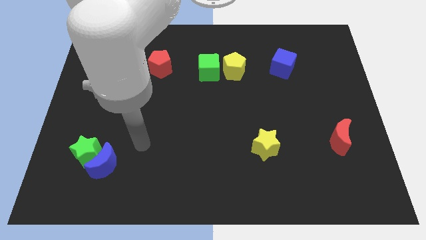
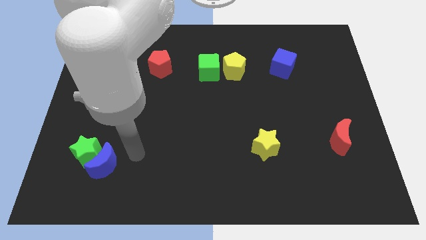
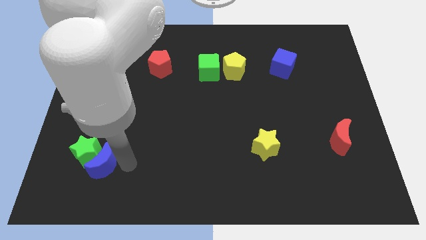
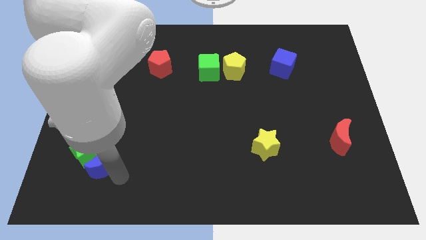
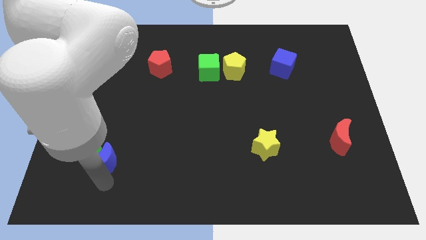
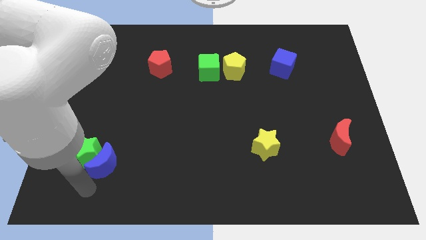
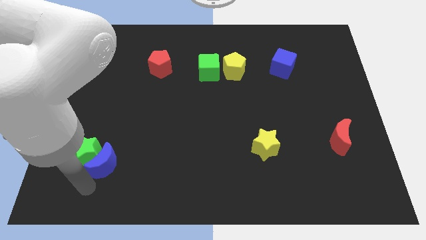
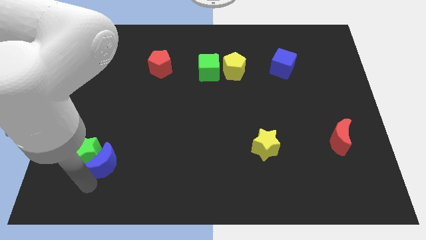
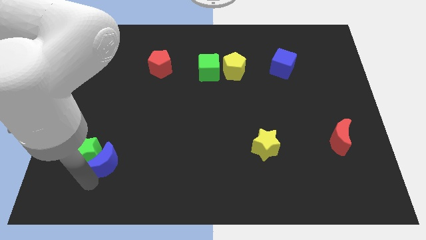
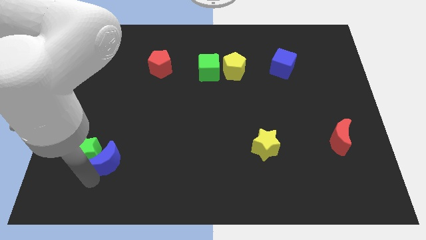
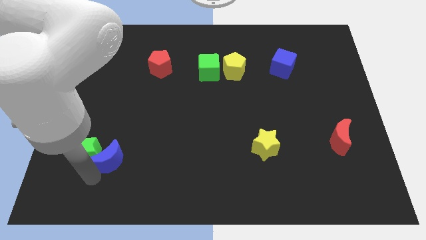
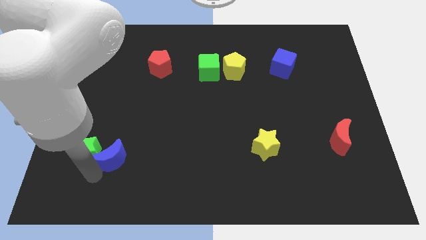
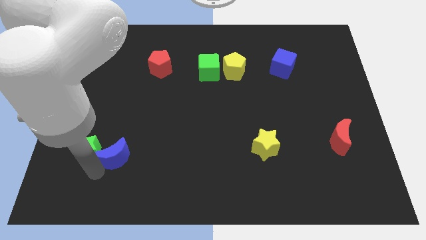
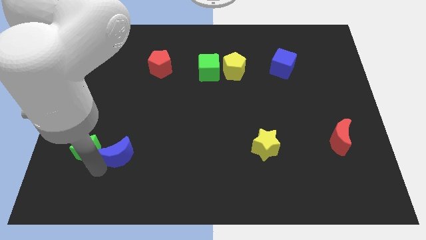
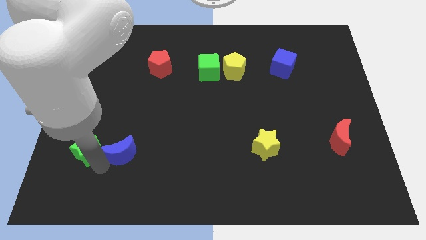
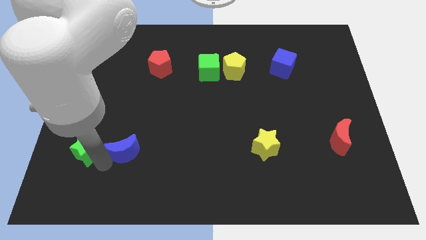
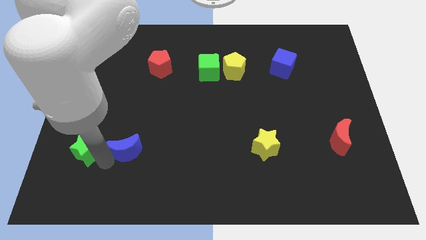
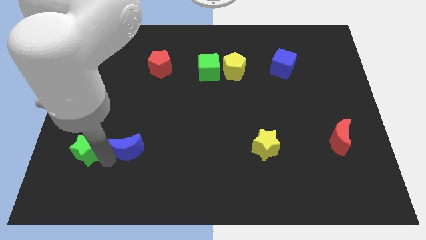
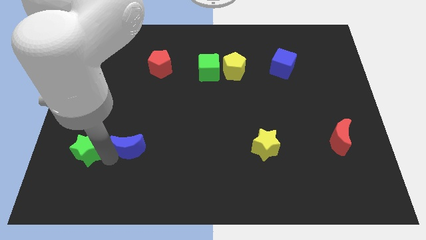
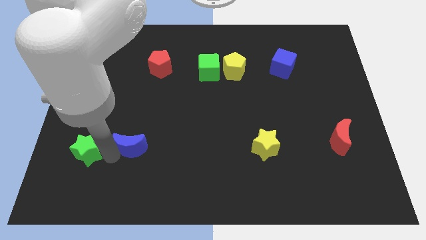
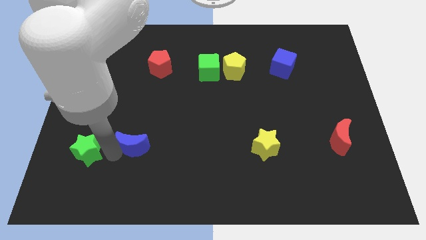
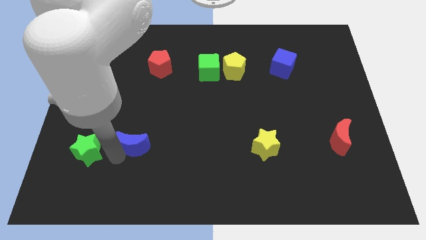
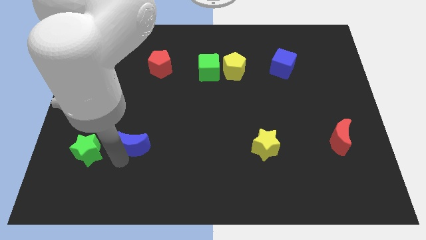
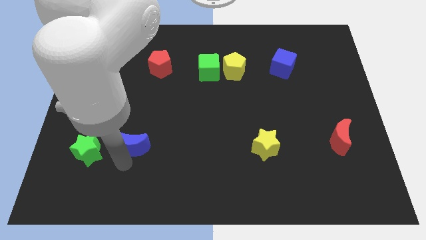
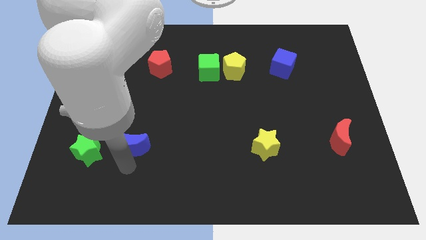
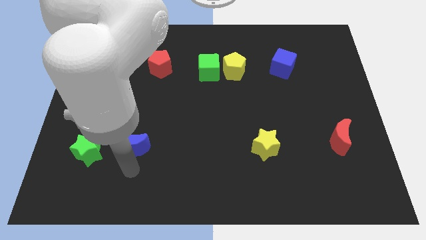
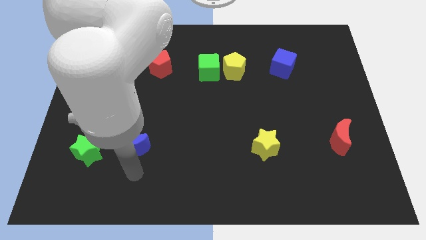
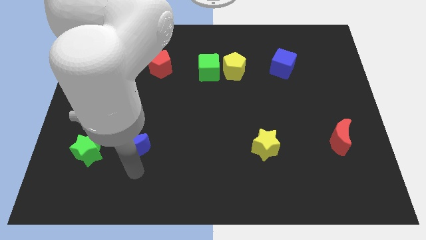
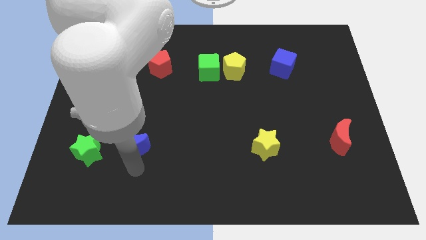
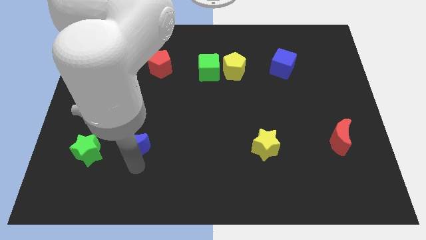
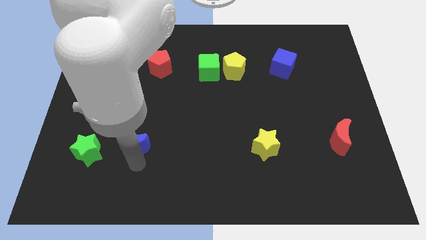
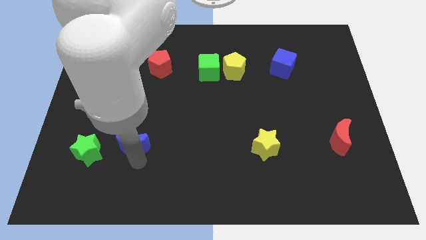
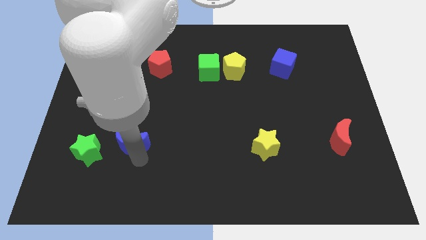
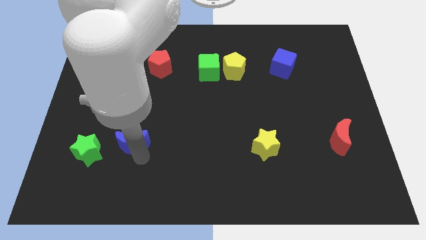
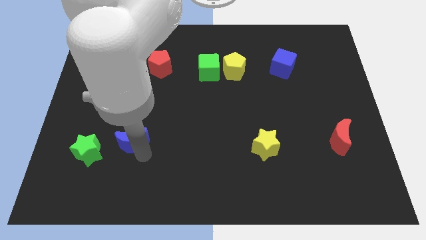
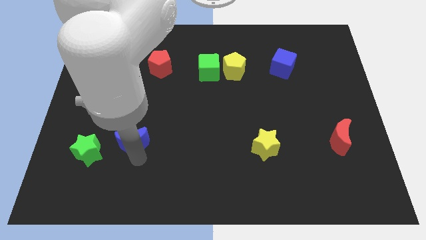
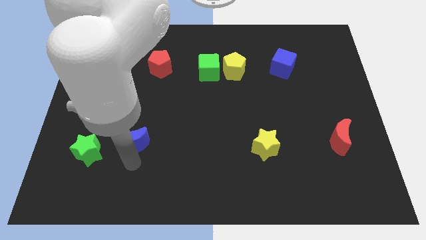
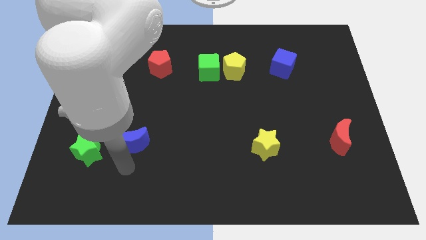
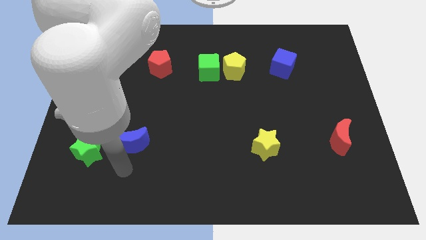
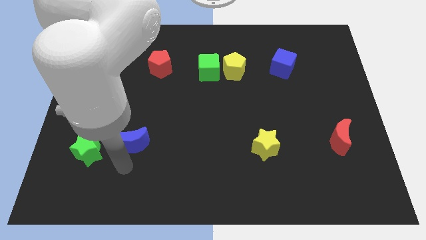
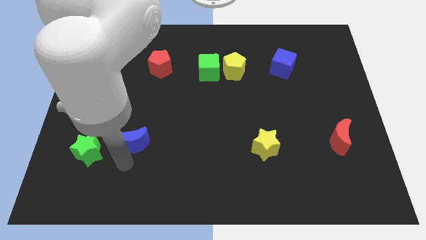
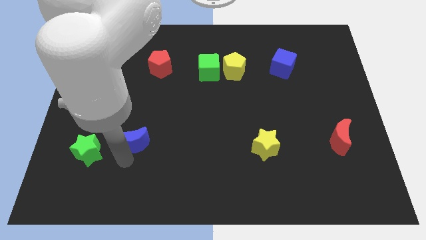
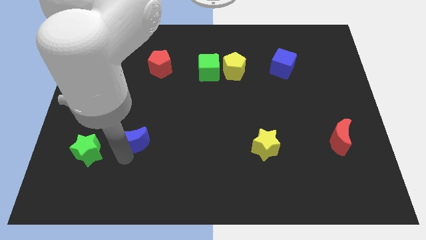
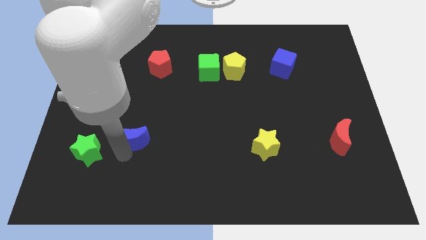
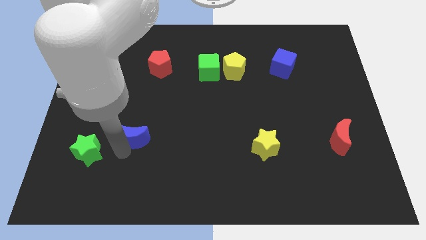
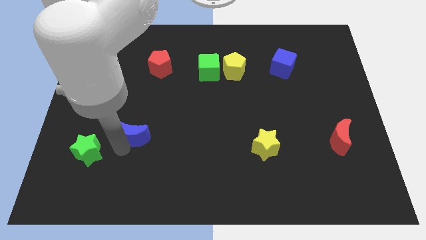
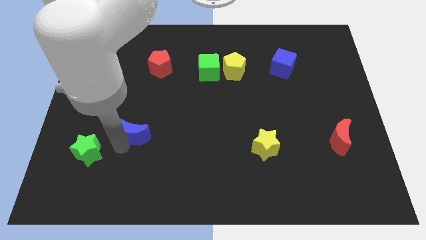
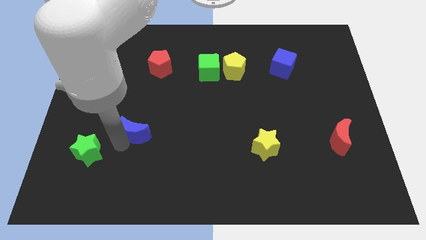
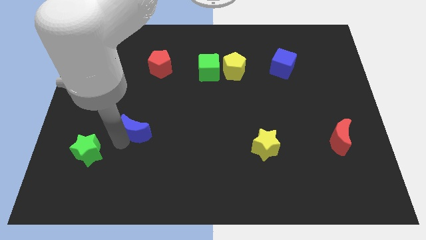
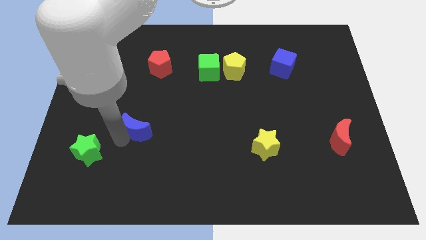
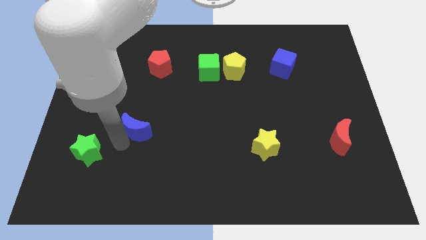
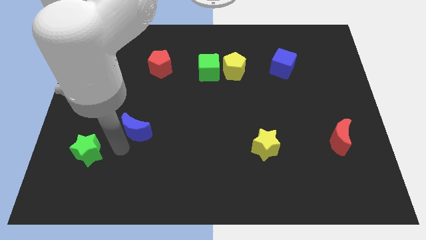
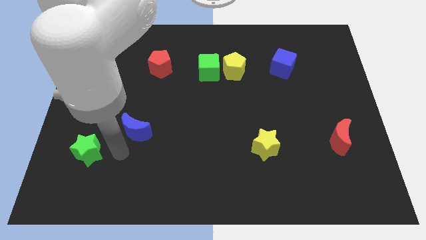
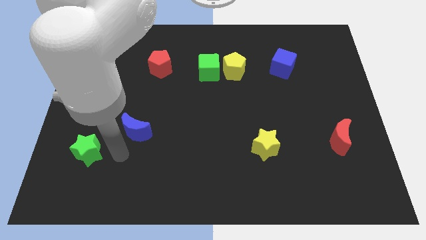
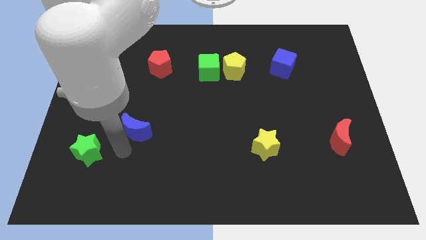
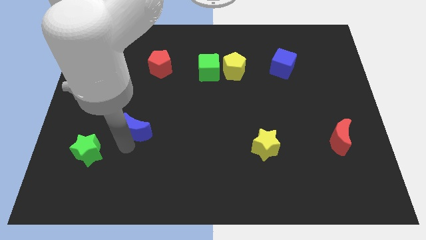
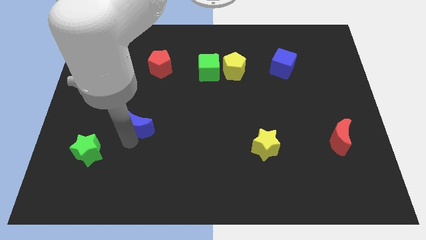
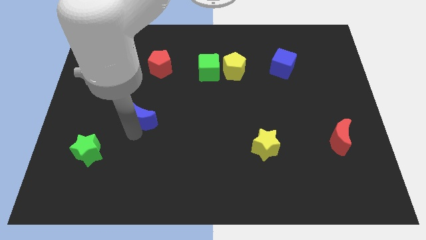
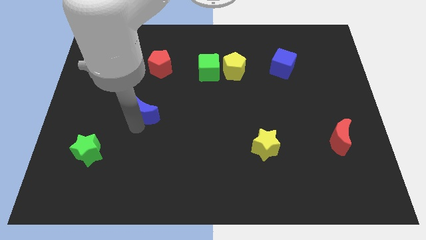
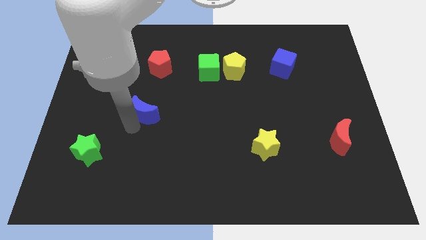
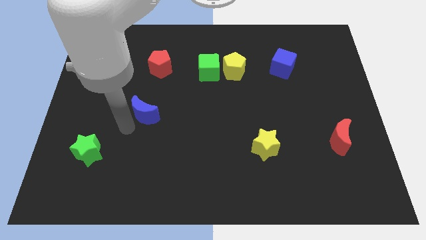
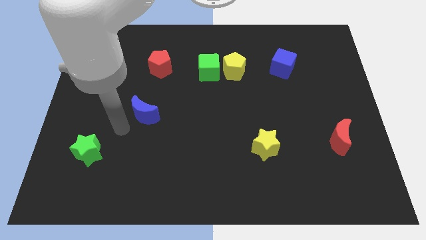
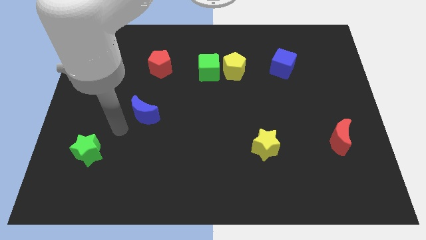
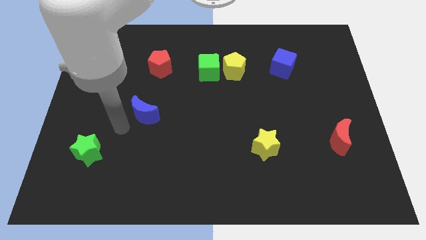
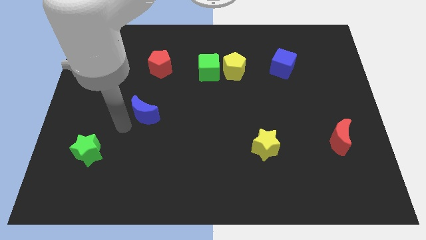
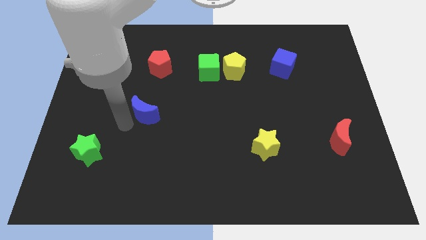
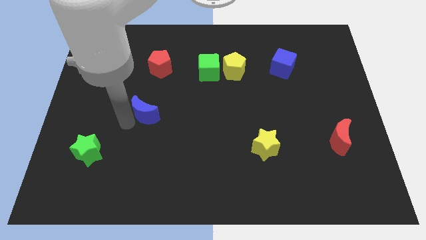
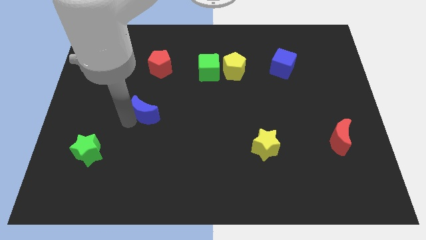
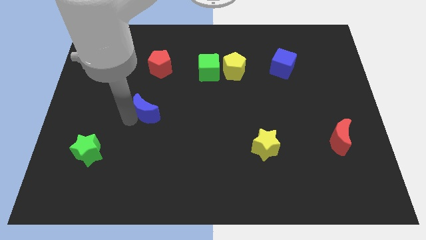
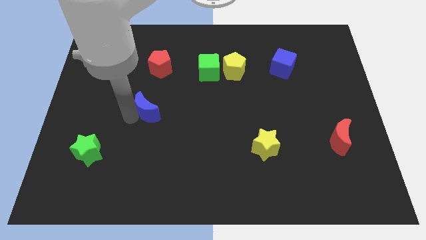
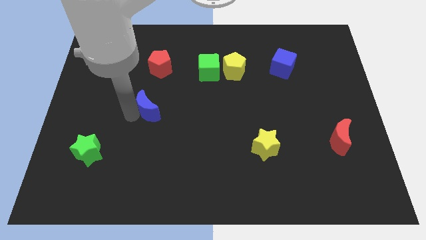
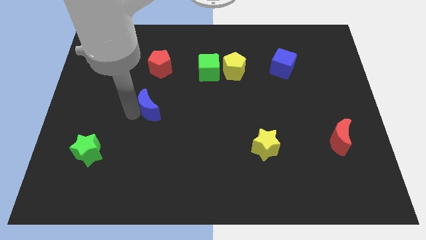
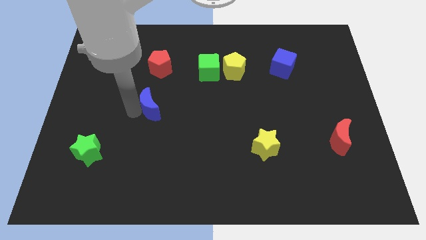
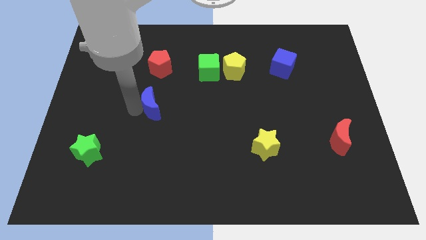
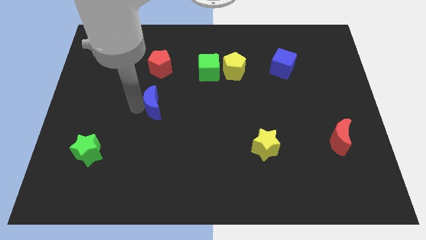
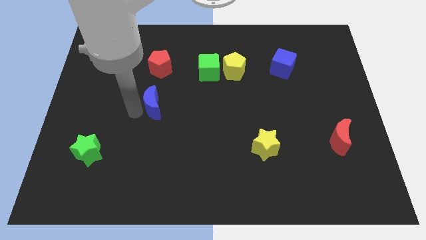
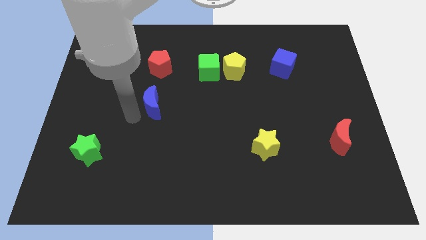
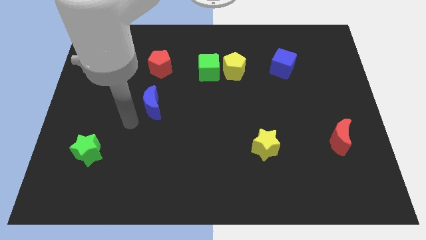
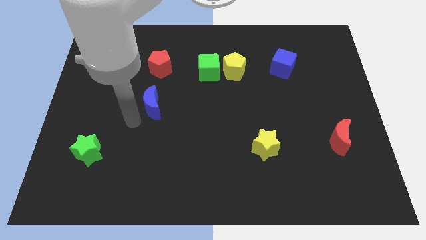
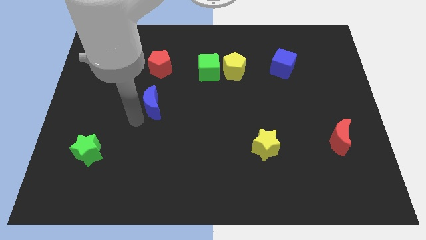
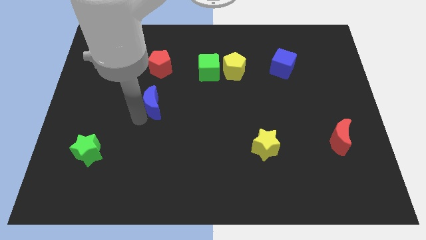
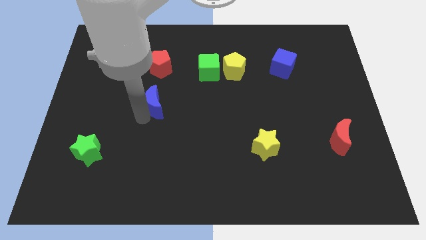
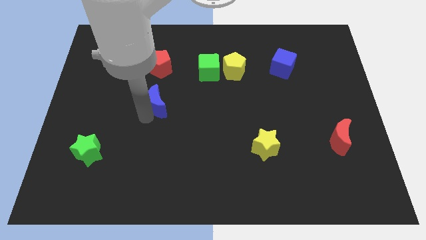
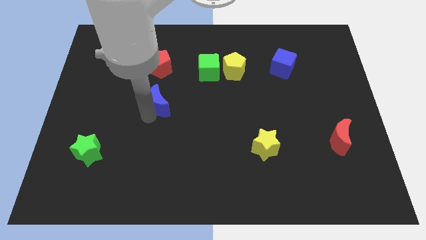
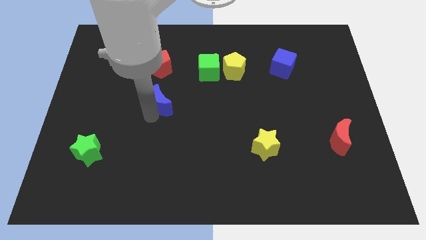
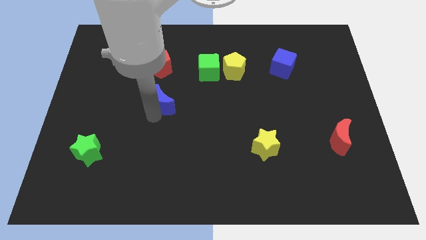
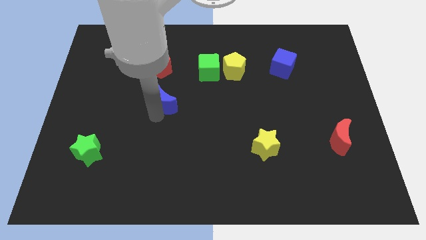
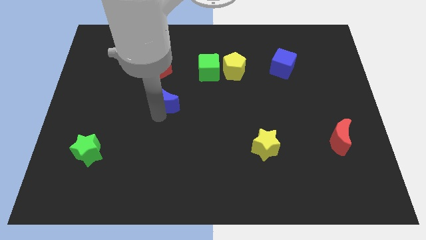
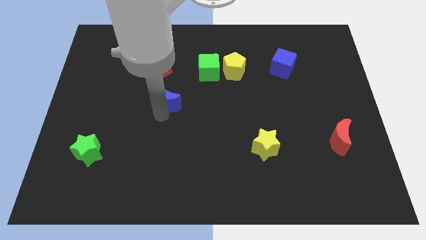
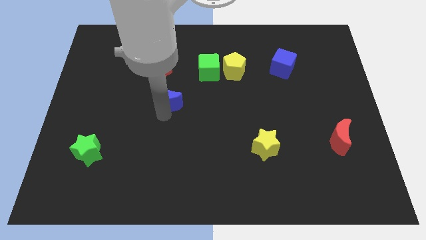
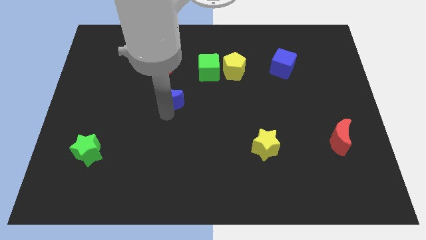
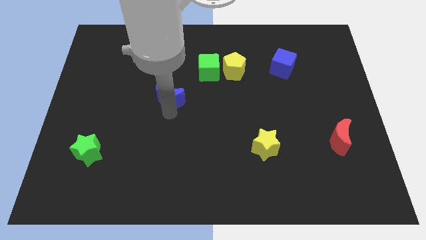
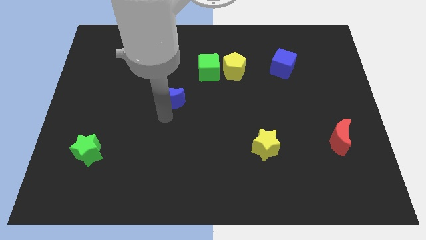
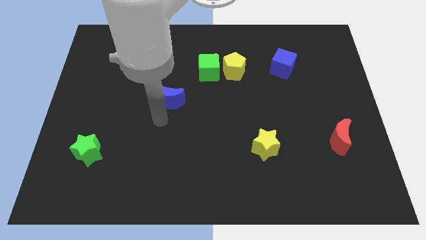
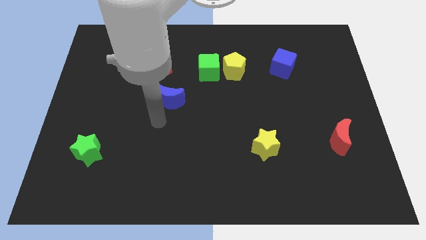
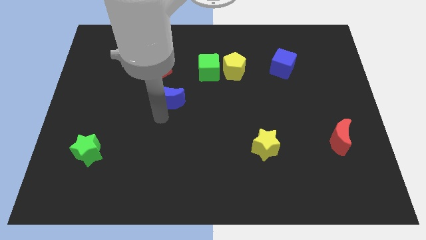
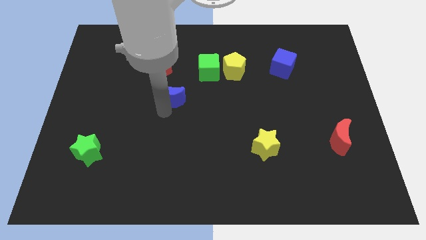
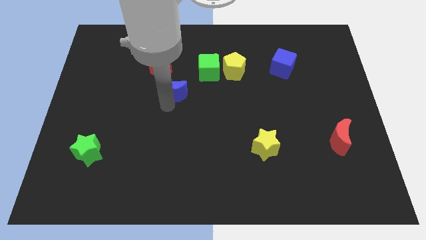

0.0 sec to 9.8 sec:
put the blue moon diagonally down and to the right of the red pentagon
